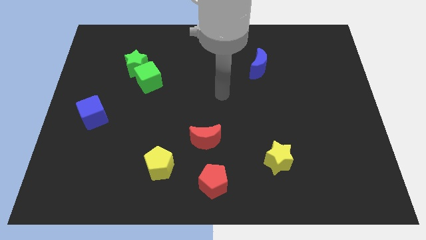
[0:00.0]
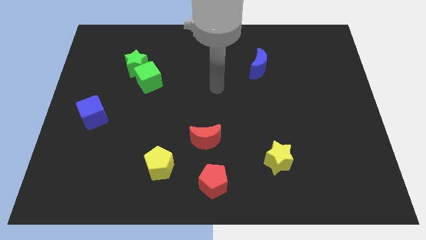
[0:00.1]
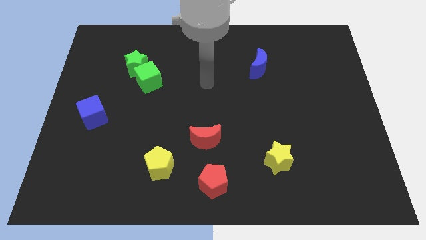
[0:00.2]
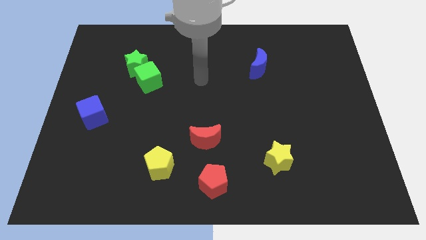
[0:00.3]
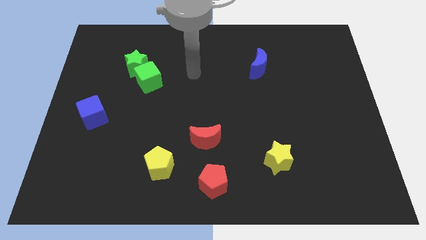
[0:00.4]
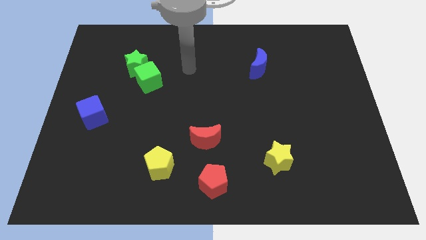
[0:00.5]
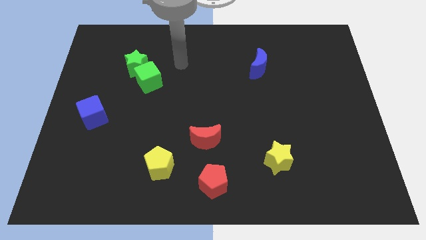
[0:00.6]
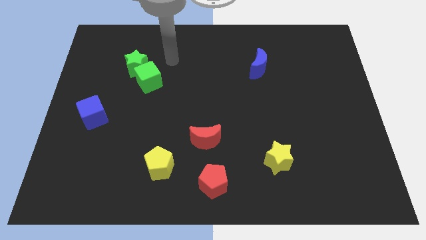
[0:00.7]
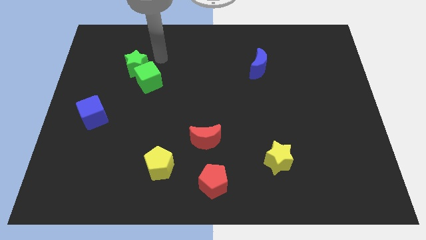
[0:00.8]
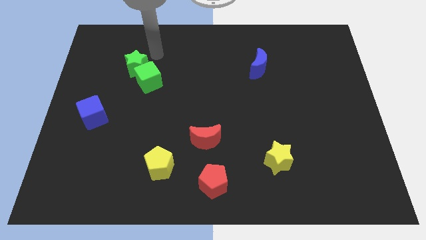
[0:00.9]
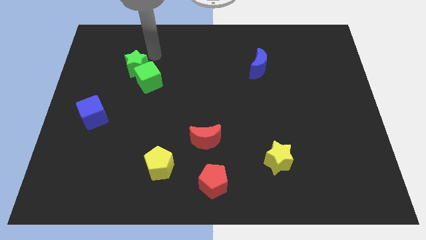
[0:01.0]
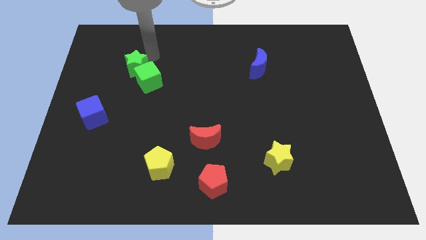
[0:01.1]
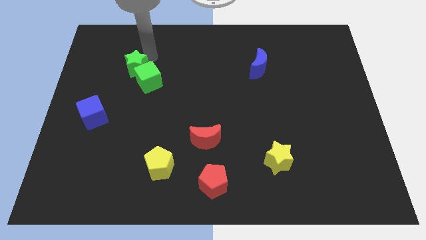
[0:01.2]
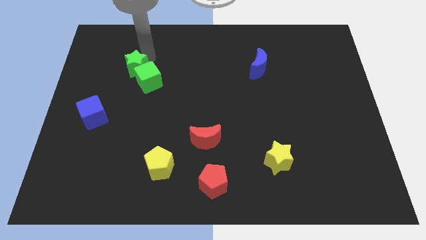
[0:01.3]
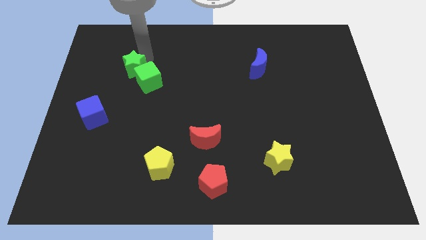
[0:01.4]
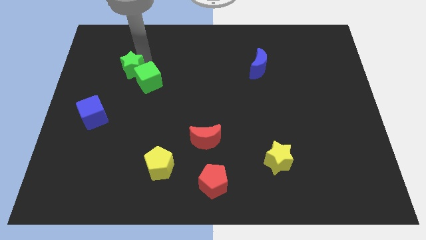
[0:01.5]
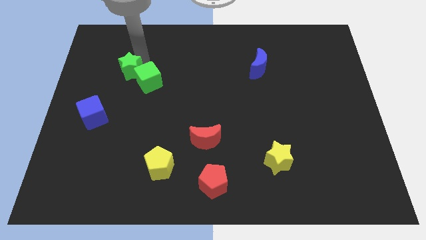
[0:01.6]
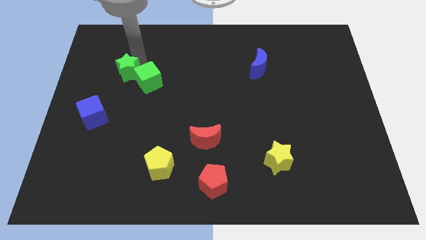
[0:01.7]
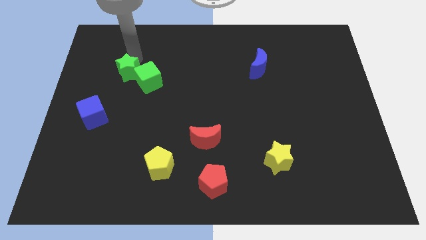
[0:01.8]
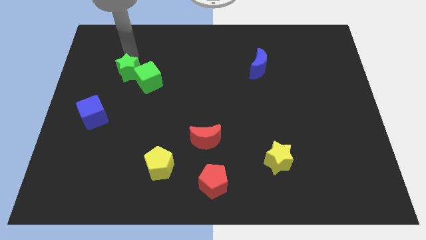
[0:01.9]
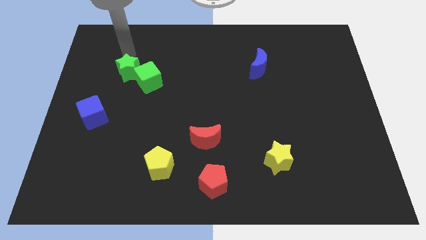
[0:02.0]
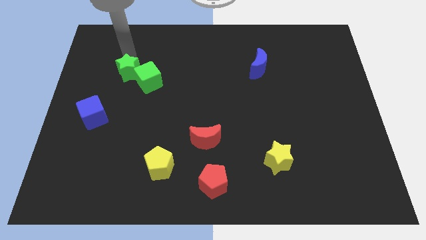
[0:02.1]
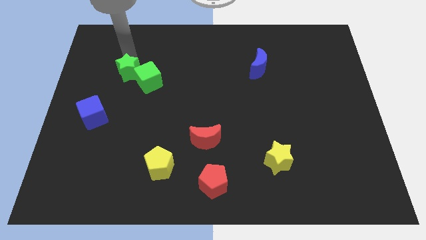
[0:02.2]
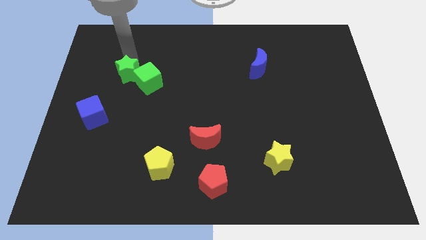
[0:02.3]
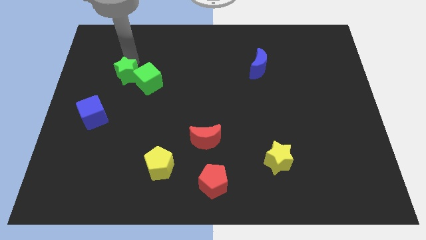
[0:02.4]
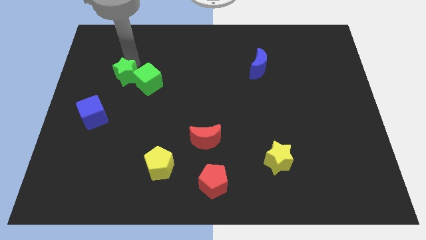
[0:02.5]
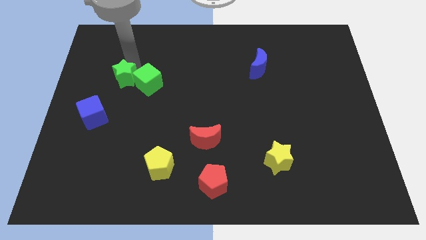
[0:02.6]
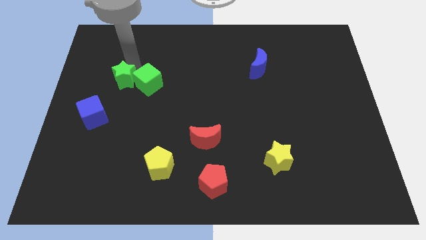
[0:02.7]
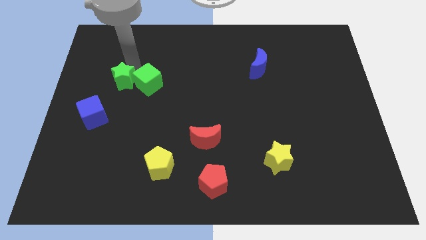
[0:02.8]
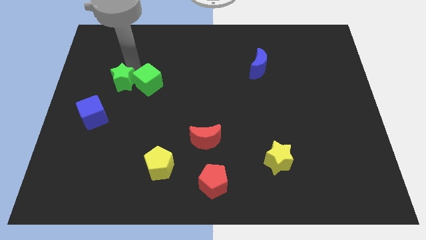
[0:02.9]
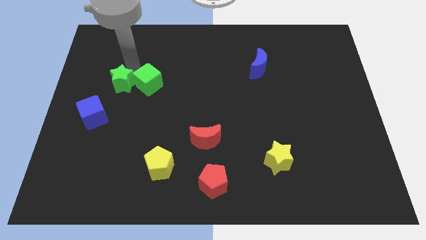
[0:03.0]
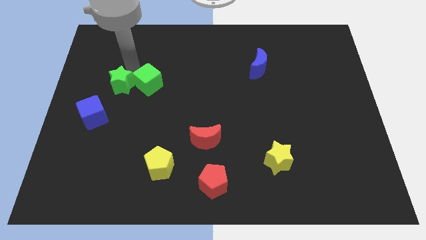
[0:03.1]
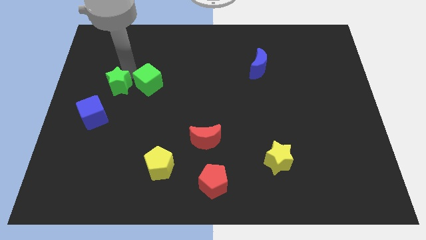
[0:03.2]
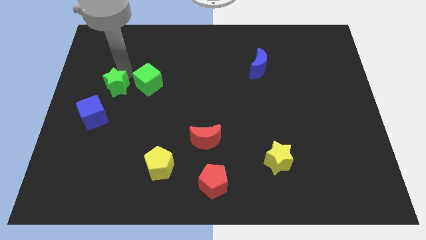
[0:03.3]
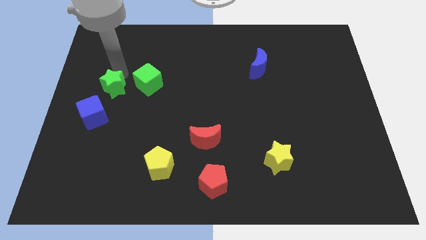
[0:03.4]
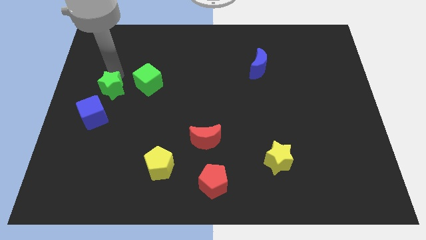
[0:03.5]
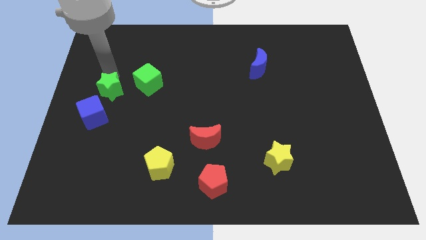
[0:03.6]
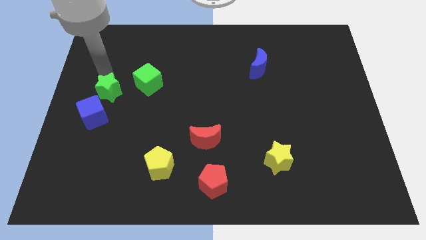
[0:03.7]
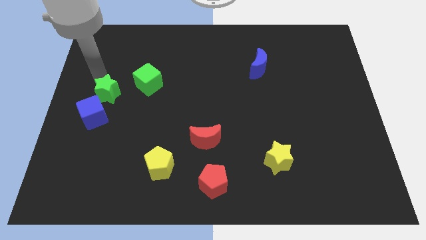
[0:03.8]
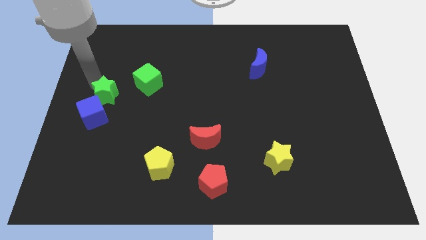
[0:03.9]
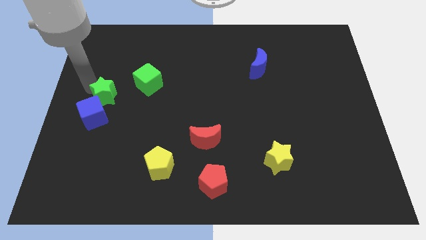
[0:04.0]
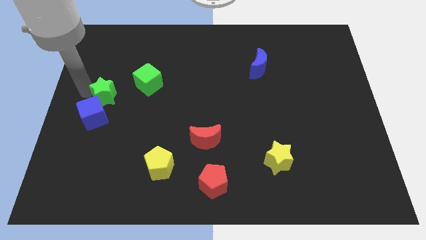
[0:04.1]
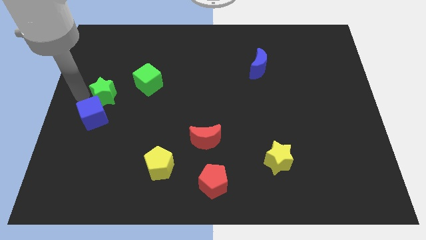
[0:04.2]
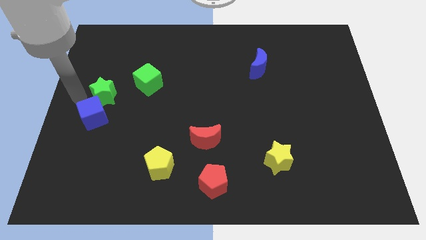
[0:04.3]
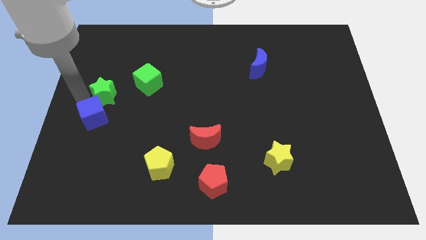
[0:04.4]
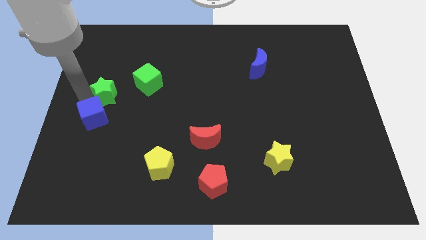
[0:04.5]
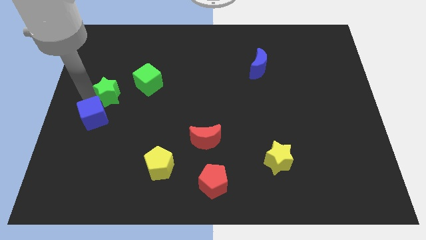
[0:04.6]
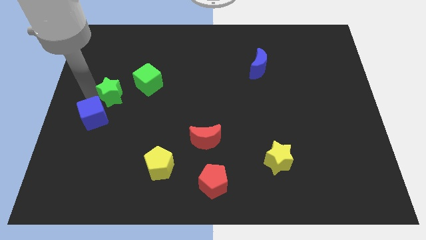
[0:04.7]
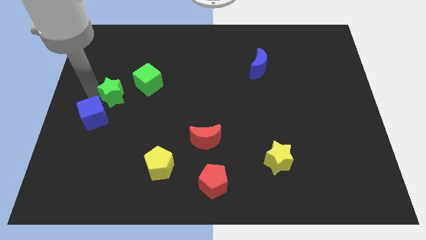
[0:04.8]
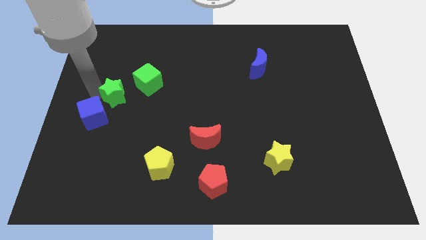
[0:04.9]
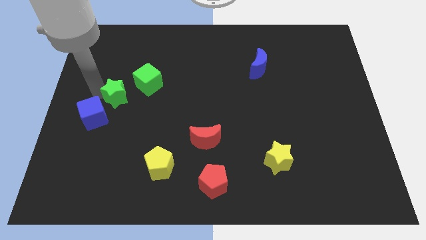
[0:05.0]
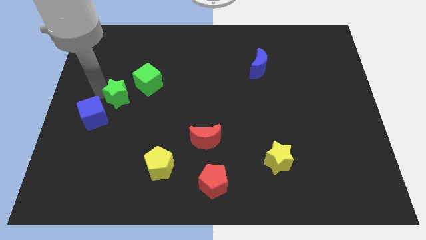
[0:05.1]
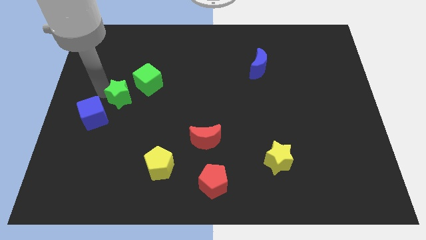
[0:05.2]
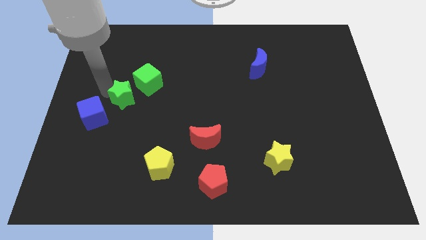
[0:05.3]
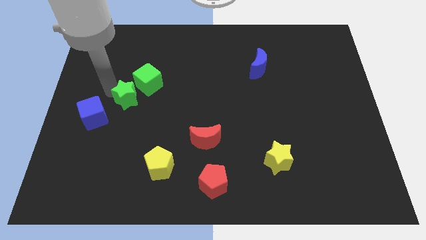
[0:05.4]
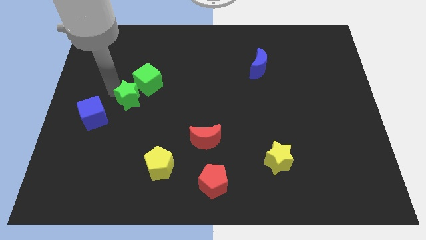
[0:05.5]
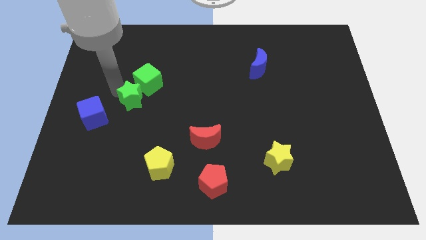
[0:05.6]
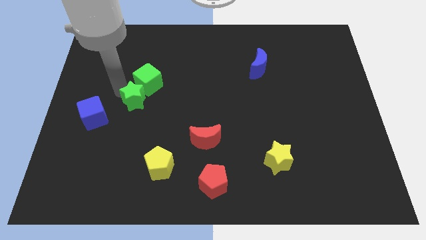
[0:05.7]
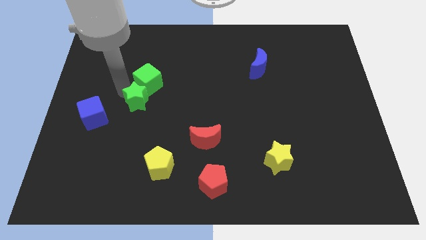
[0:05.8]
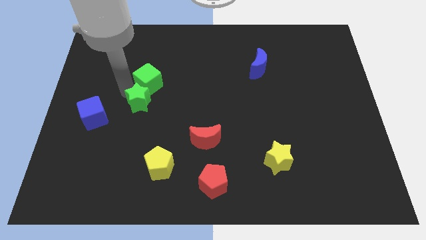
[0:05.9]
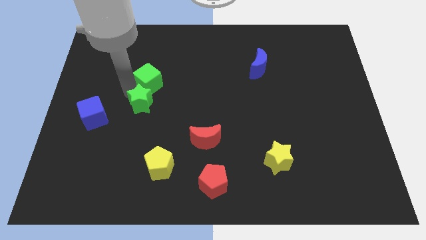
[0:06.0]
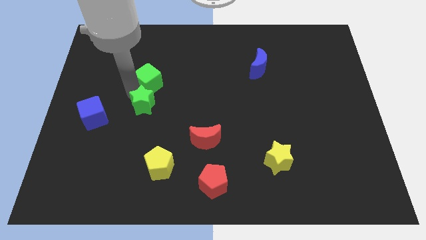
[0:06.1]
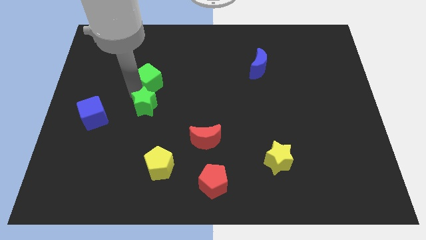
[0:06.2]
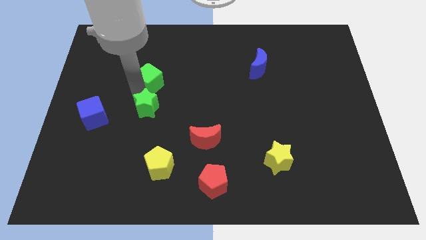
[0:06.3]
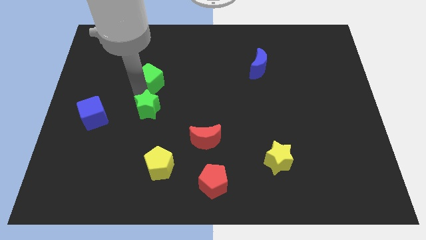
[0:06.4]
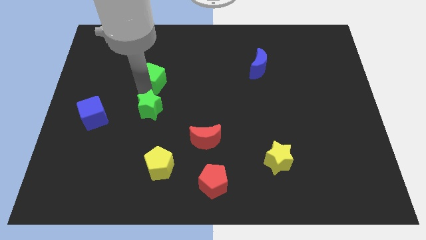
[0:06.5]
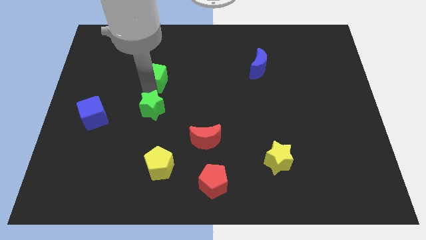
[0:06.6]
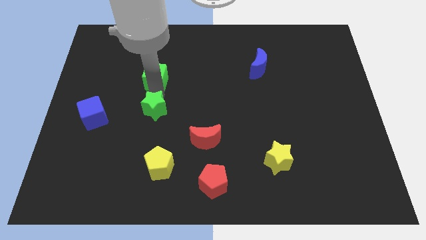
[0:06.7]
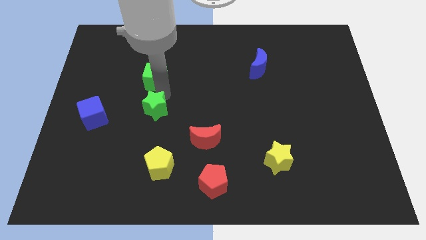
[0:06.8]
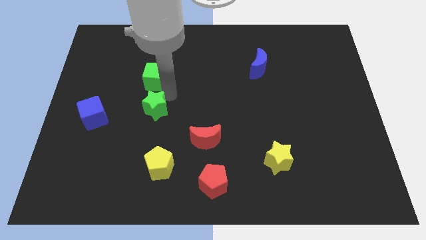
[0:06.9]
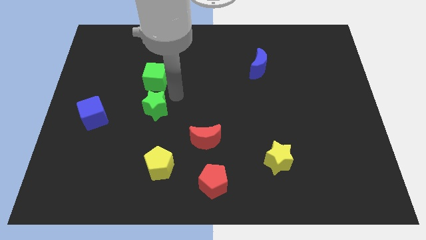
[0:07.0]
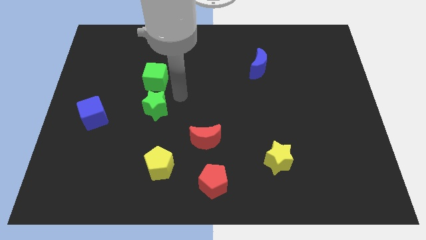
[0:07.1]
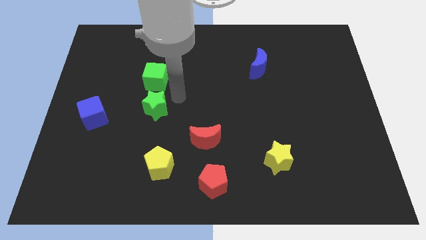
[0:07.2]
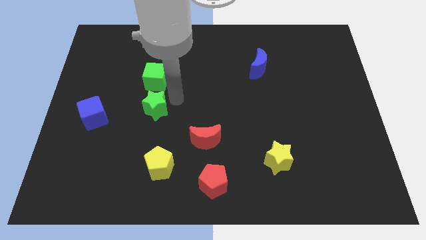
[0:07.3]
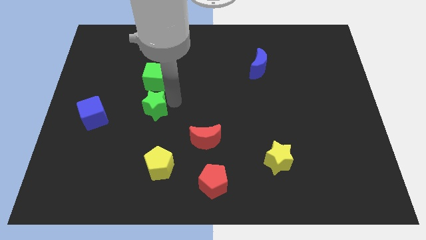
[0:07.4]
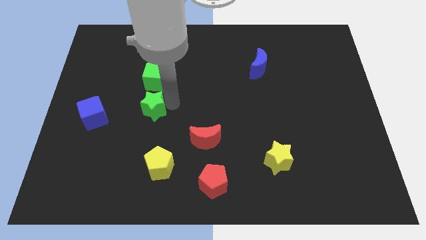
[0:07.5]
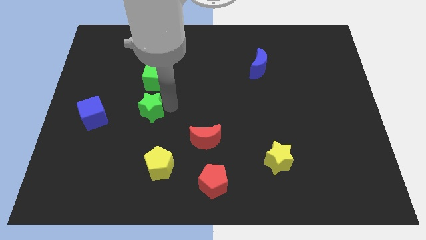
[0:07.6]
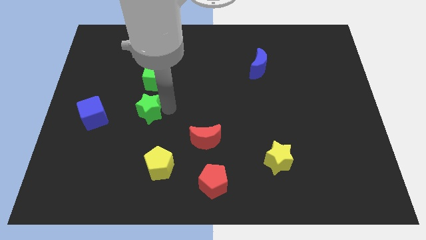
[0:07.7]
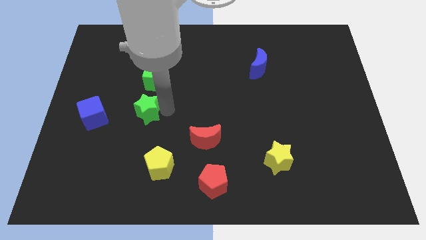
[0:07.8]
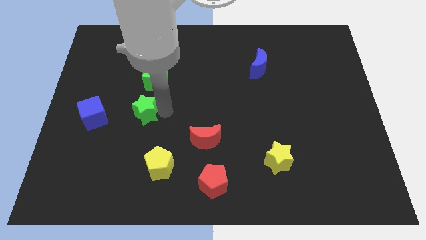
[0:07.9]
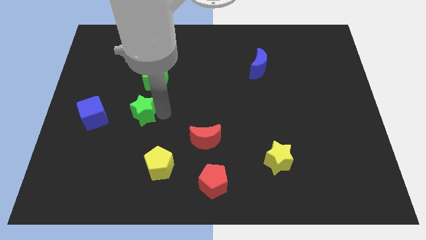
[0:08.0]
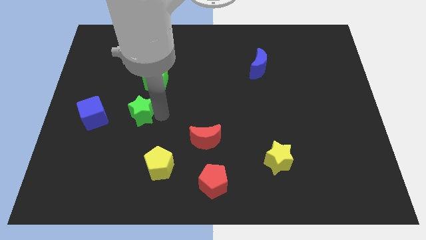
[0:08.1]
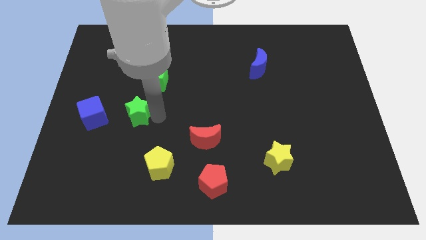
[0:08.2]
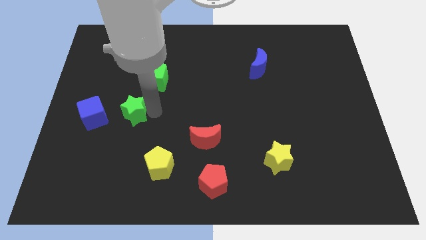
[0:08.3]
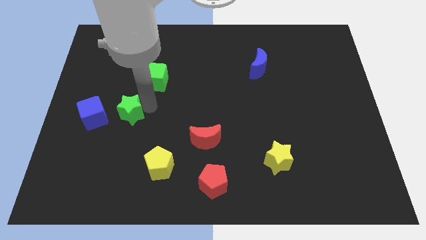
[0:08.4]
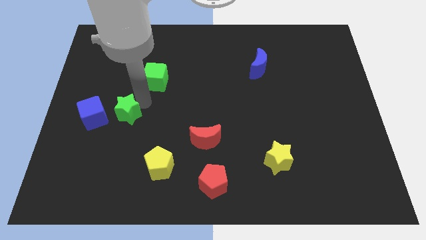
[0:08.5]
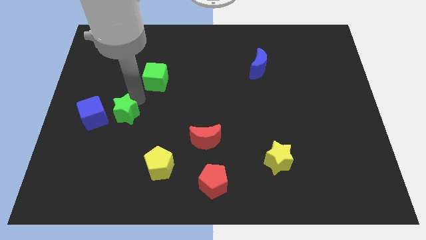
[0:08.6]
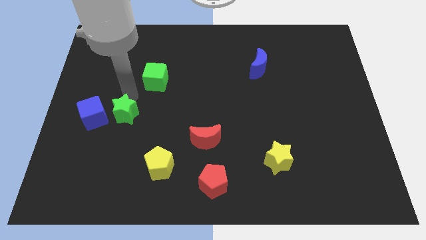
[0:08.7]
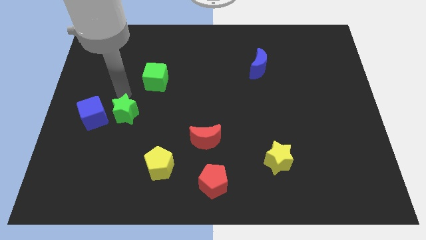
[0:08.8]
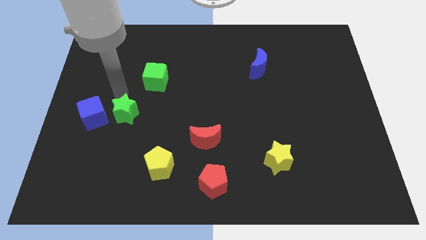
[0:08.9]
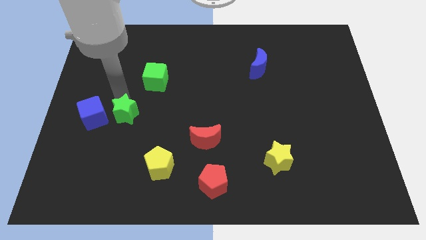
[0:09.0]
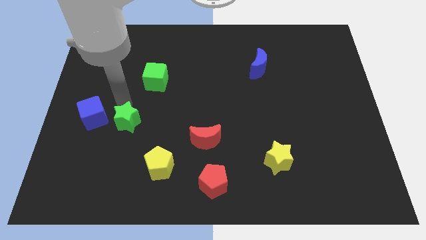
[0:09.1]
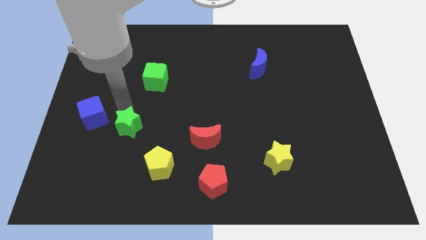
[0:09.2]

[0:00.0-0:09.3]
slide the green star to the top left of the yellow pentagon
